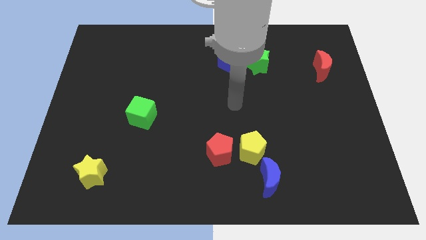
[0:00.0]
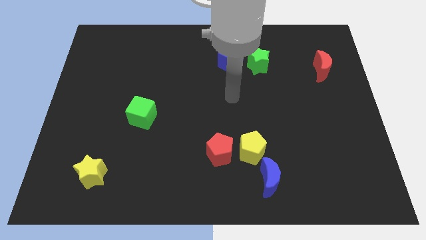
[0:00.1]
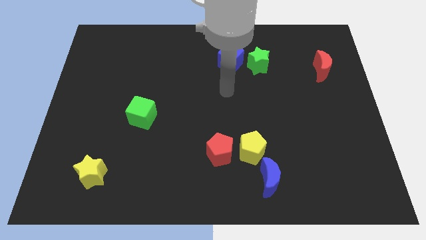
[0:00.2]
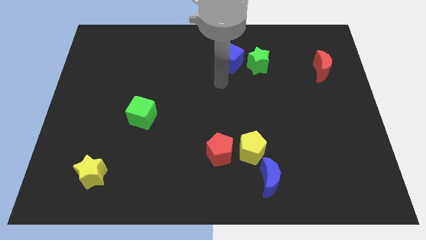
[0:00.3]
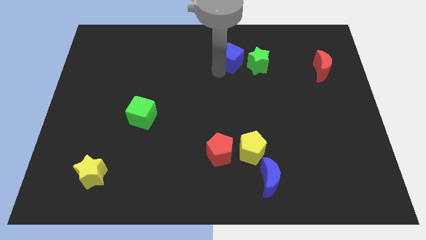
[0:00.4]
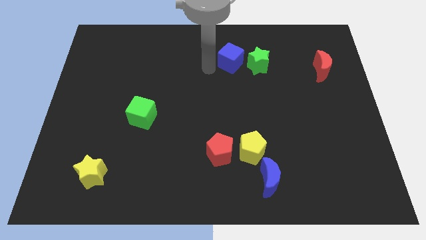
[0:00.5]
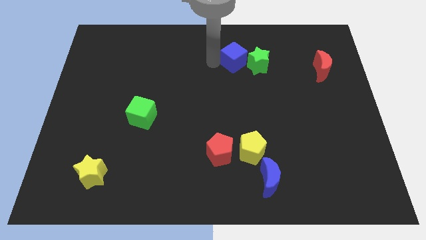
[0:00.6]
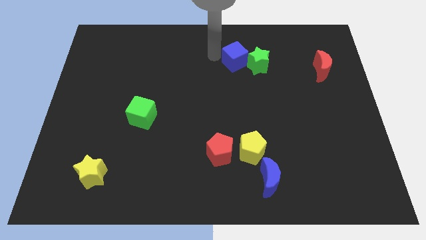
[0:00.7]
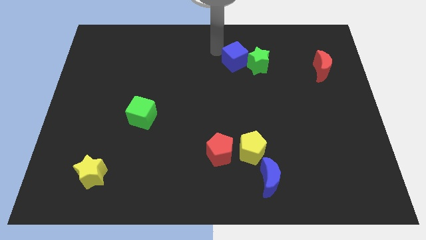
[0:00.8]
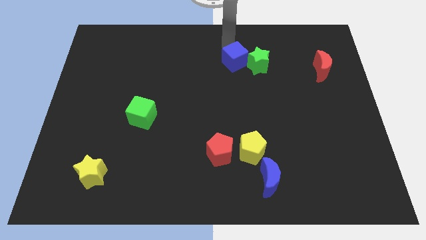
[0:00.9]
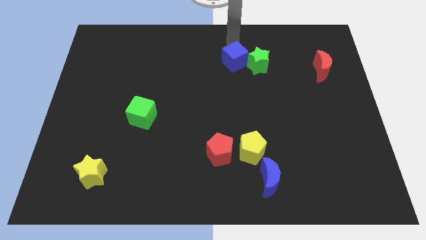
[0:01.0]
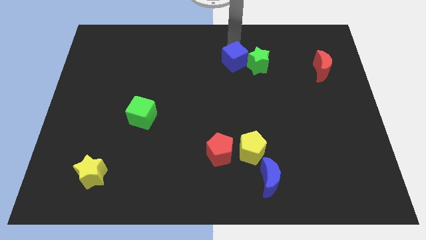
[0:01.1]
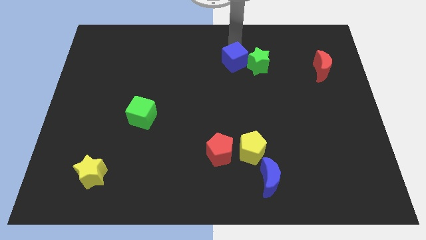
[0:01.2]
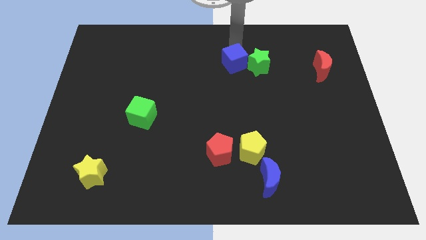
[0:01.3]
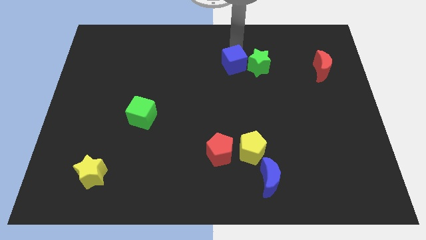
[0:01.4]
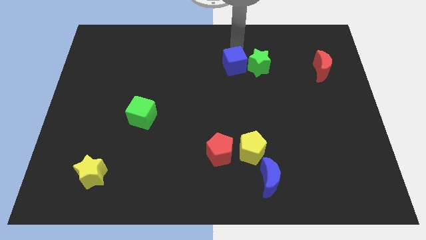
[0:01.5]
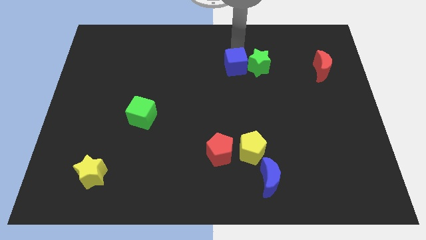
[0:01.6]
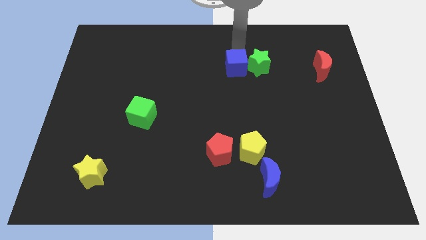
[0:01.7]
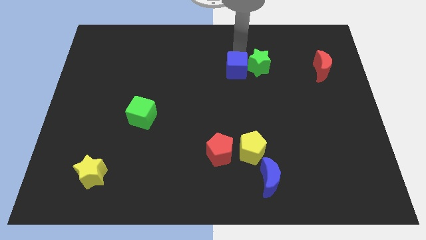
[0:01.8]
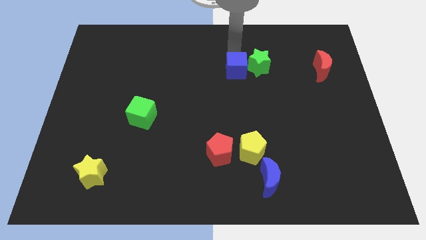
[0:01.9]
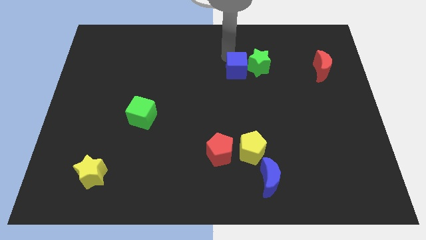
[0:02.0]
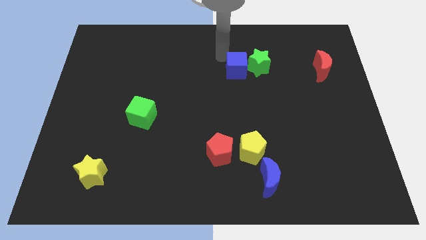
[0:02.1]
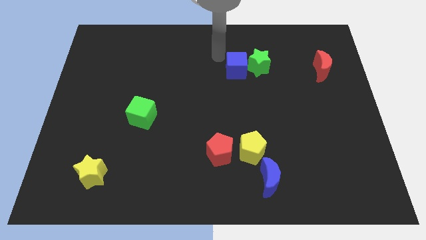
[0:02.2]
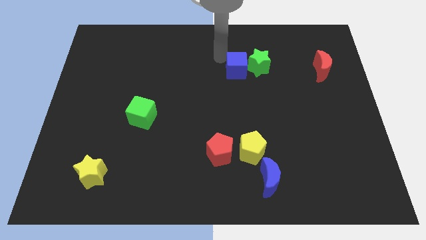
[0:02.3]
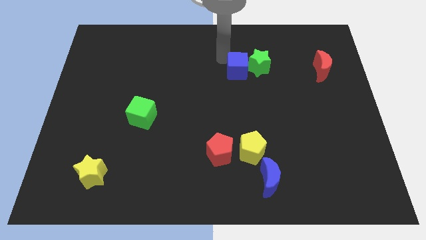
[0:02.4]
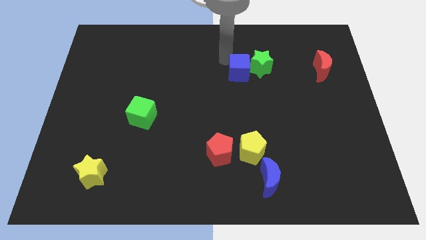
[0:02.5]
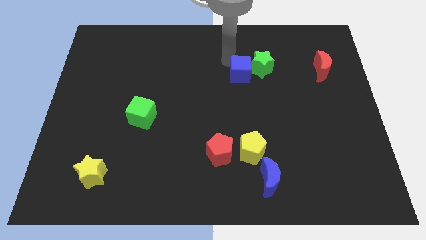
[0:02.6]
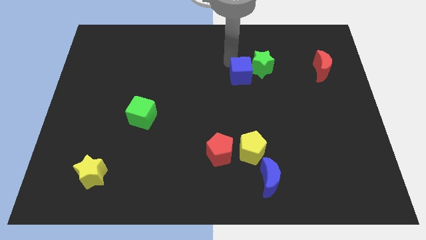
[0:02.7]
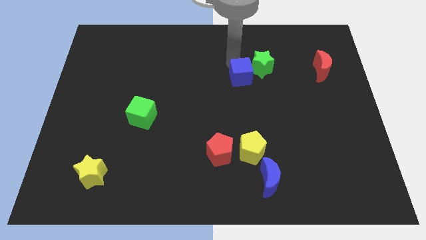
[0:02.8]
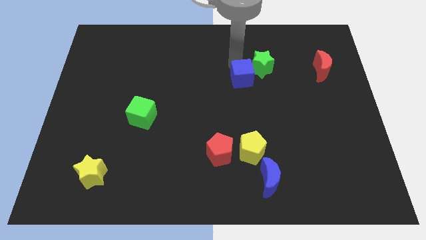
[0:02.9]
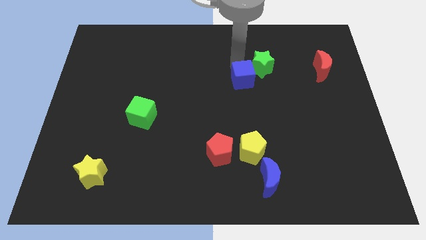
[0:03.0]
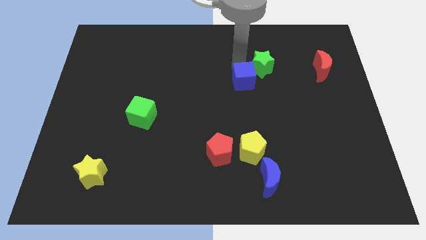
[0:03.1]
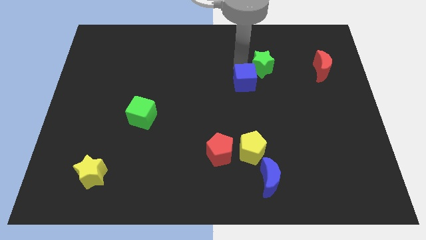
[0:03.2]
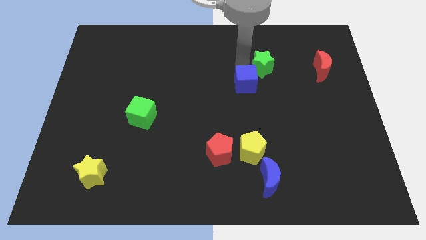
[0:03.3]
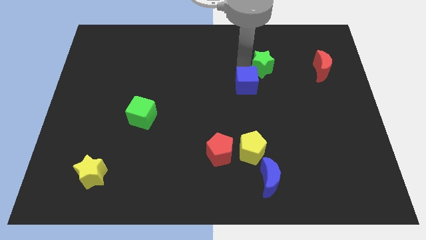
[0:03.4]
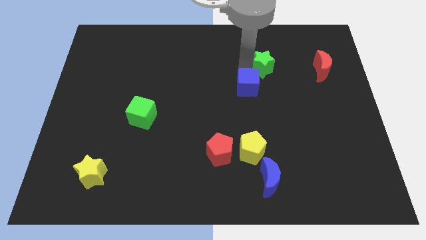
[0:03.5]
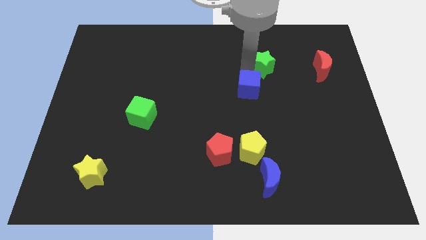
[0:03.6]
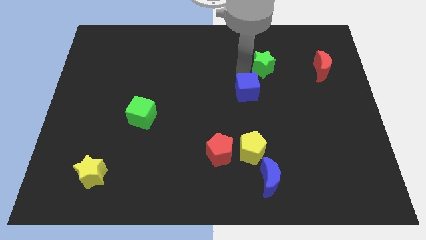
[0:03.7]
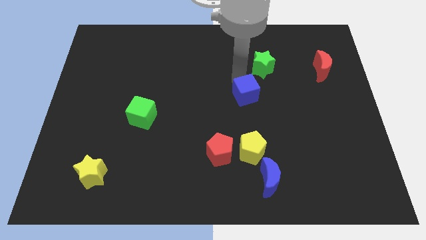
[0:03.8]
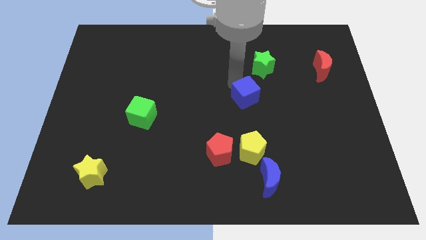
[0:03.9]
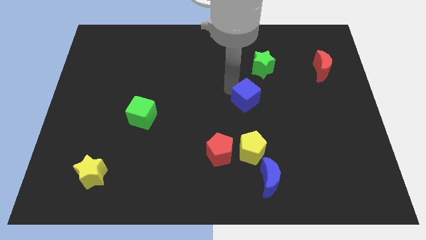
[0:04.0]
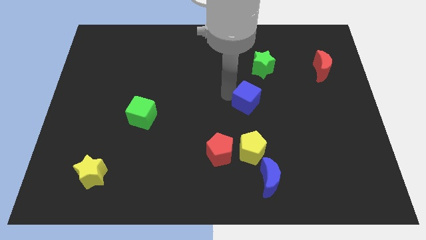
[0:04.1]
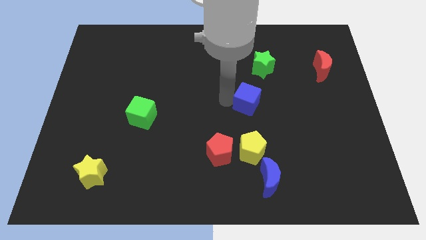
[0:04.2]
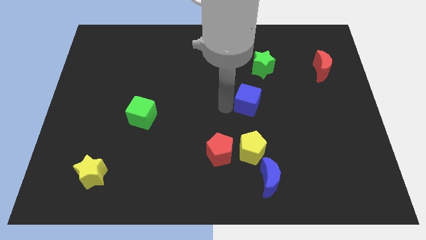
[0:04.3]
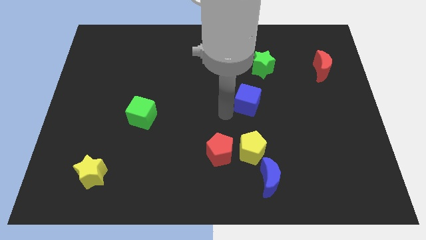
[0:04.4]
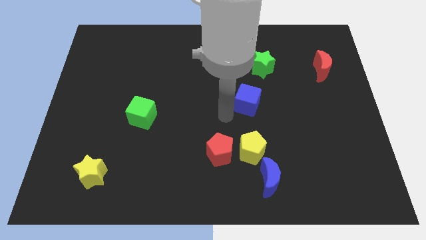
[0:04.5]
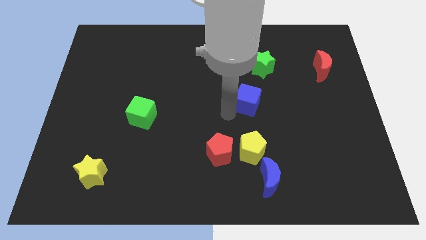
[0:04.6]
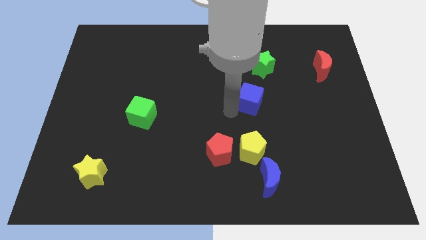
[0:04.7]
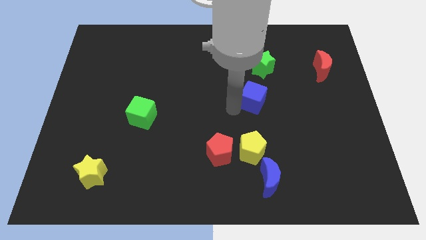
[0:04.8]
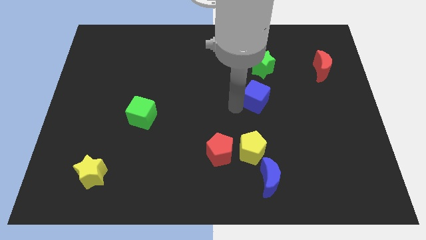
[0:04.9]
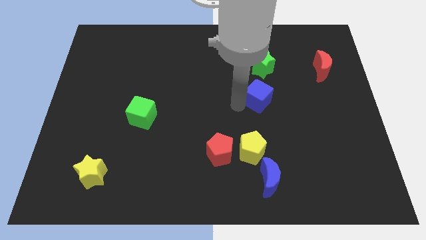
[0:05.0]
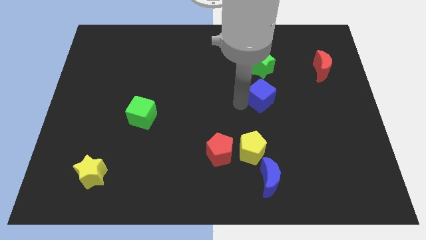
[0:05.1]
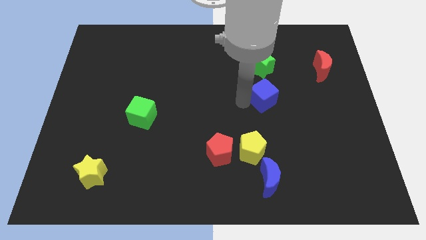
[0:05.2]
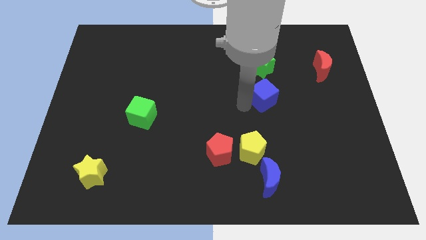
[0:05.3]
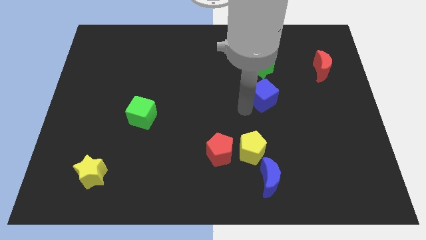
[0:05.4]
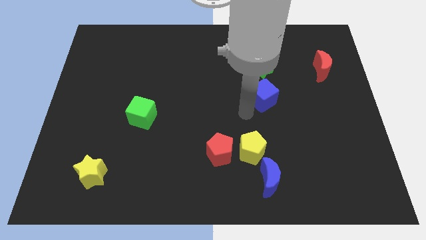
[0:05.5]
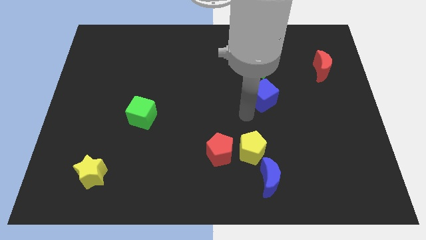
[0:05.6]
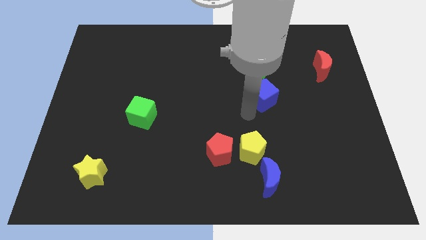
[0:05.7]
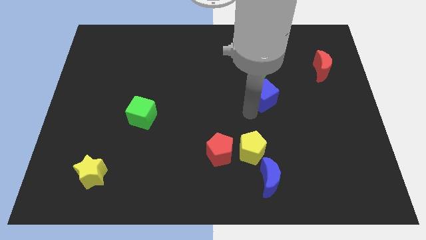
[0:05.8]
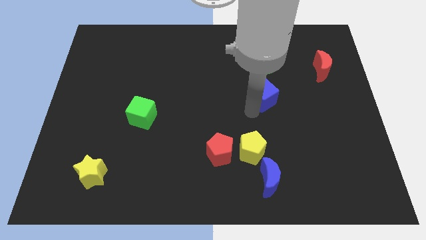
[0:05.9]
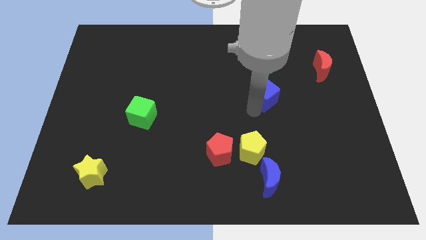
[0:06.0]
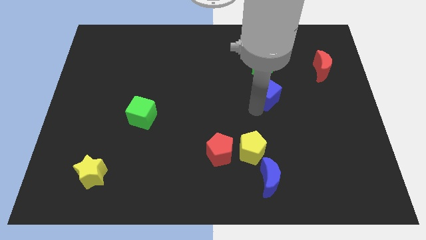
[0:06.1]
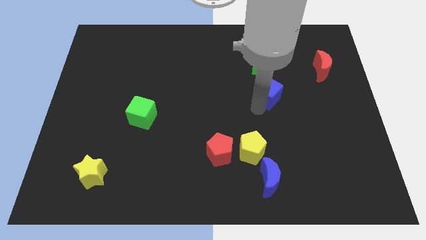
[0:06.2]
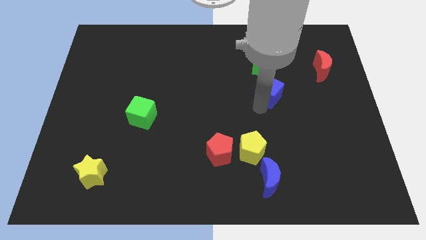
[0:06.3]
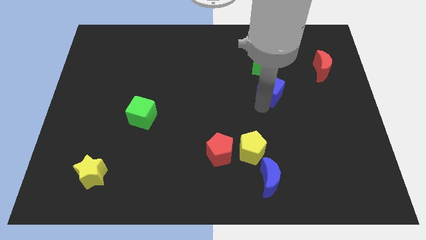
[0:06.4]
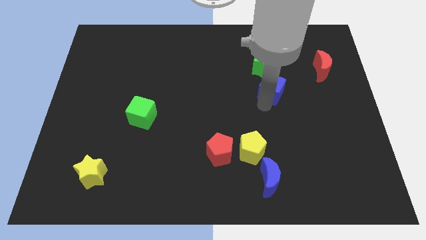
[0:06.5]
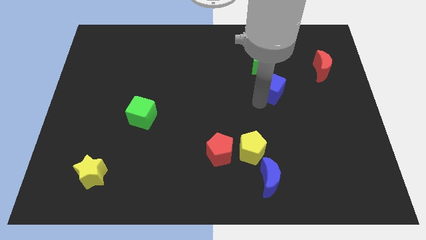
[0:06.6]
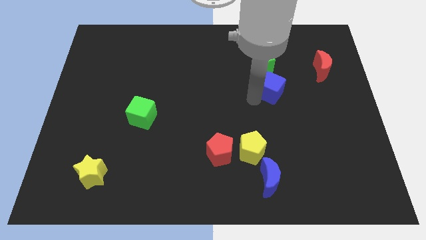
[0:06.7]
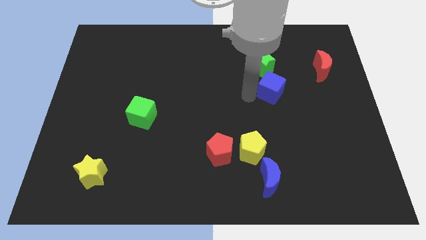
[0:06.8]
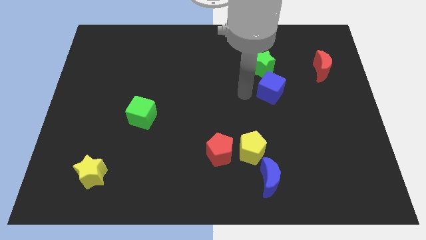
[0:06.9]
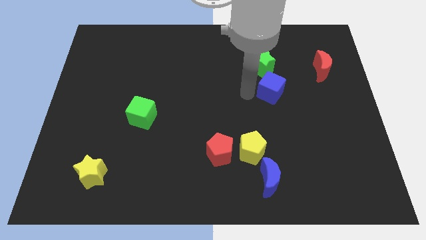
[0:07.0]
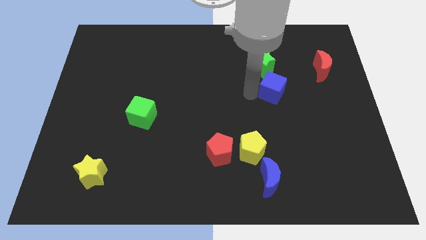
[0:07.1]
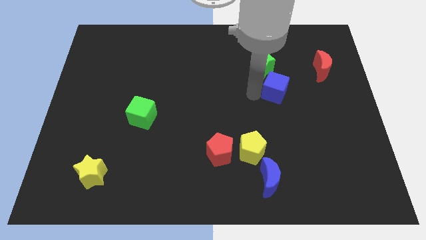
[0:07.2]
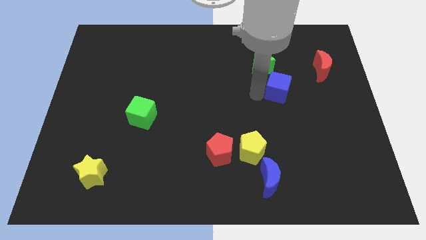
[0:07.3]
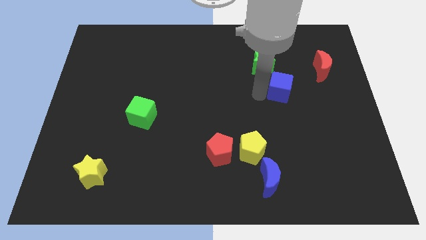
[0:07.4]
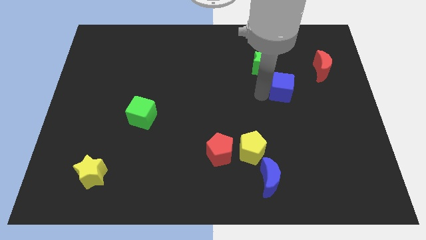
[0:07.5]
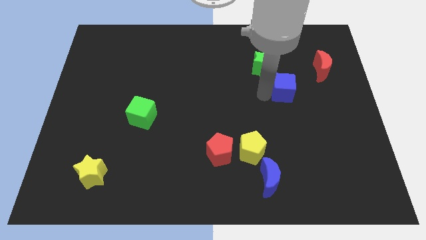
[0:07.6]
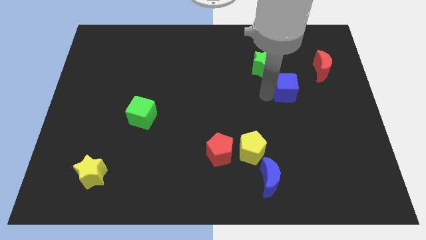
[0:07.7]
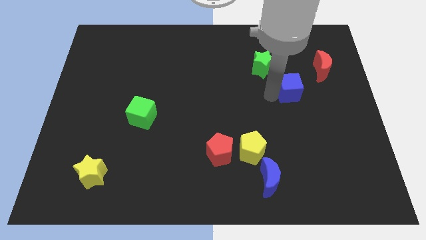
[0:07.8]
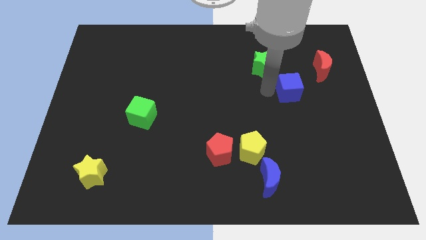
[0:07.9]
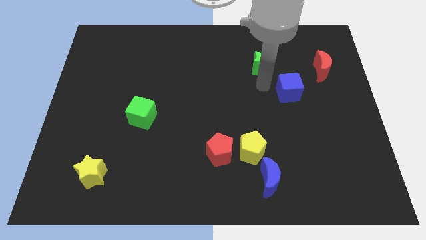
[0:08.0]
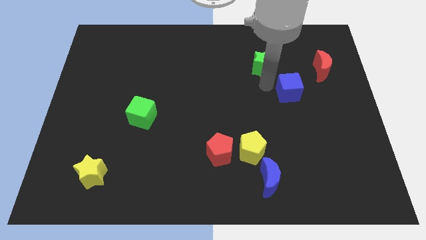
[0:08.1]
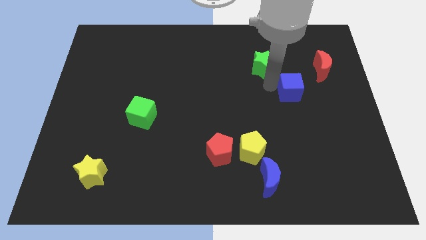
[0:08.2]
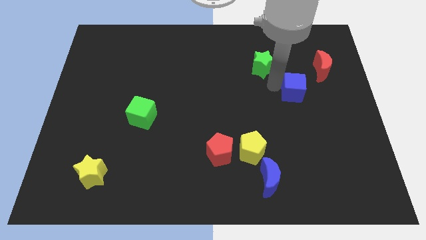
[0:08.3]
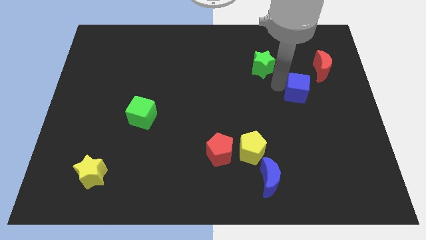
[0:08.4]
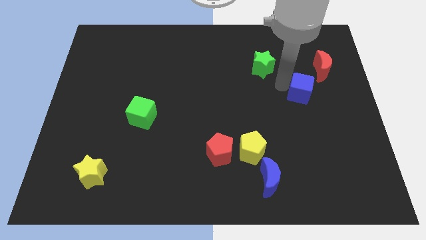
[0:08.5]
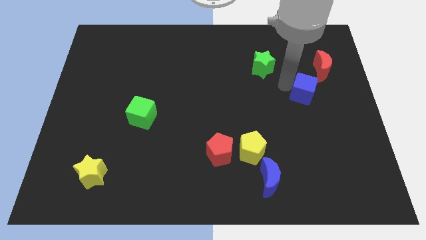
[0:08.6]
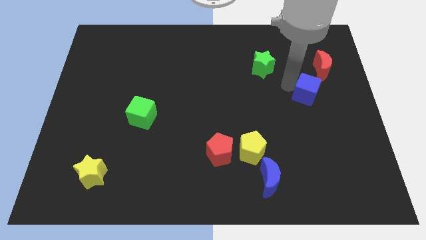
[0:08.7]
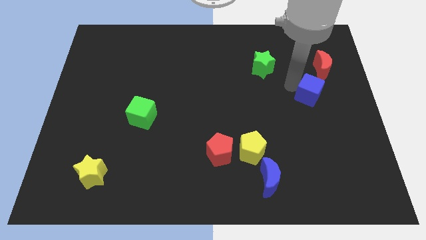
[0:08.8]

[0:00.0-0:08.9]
push the blue cube to the bottom of the red moon
